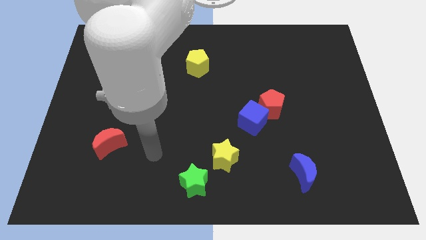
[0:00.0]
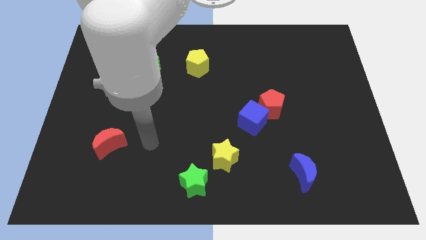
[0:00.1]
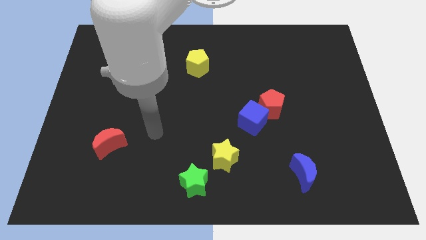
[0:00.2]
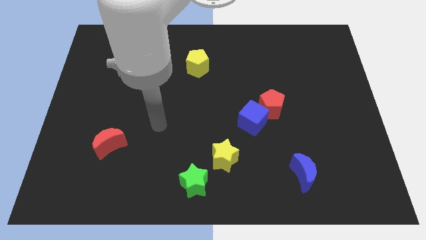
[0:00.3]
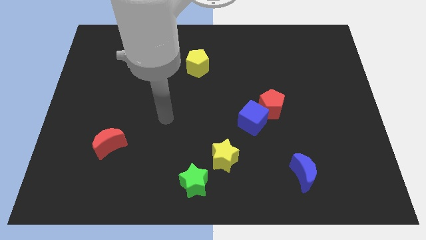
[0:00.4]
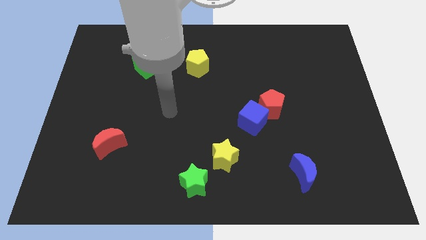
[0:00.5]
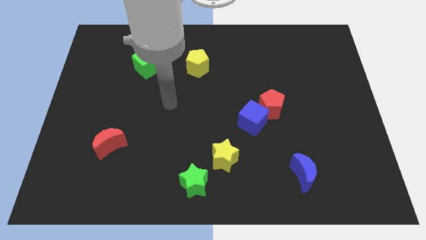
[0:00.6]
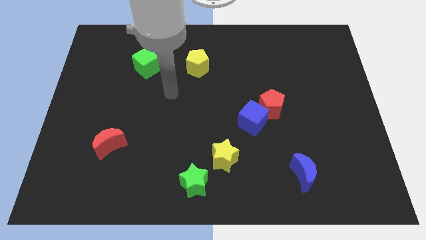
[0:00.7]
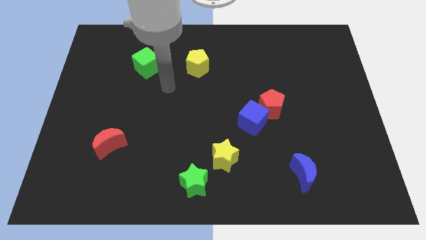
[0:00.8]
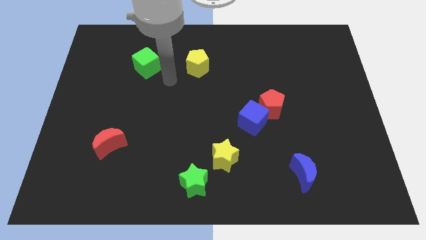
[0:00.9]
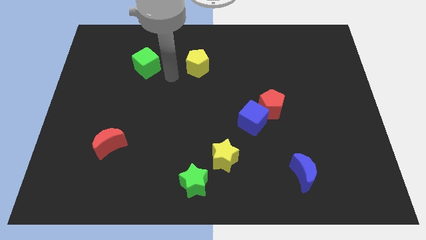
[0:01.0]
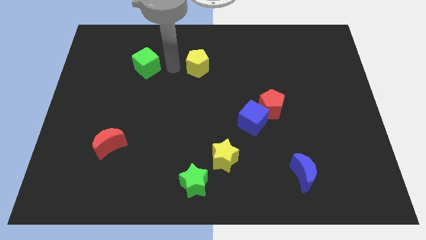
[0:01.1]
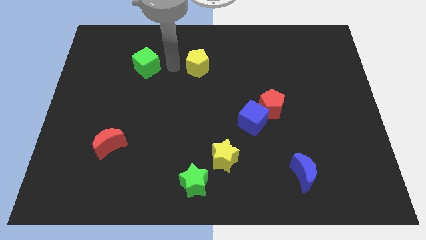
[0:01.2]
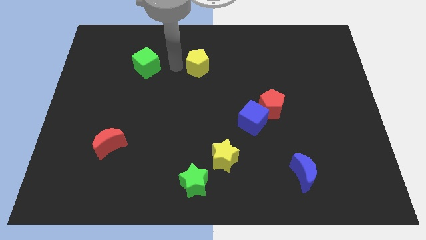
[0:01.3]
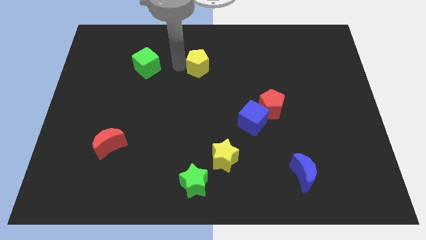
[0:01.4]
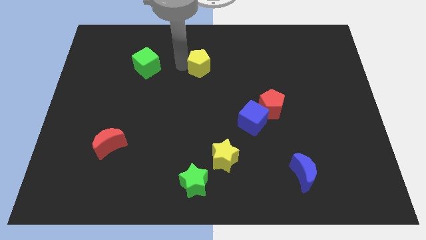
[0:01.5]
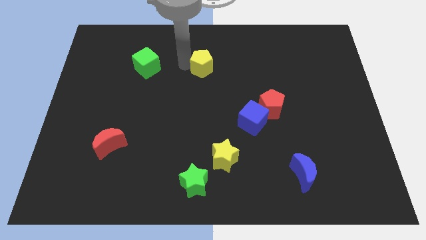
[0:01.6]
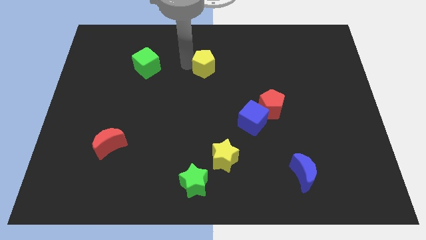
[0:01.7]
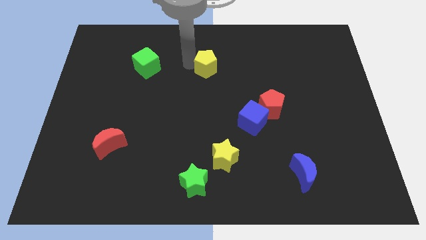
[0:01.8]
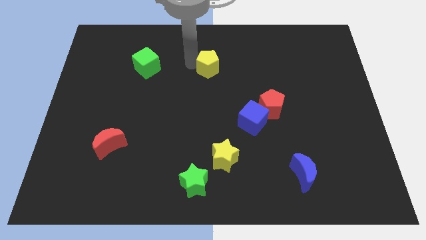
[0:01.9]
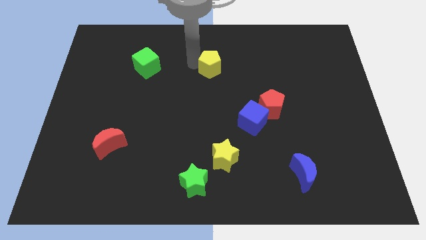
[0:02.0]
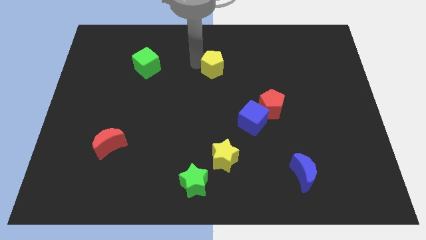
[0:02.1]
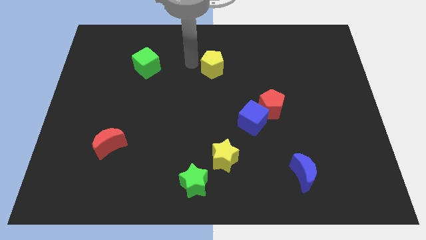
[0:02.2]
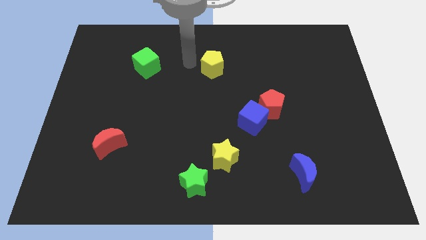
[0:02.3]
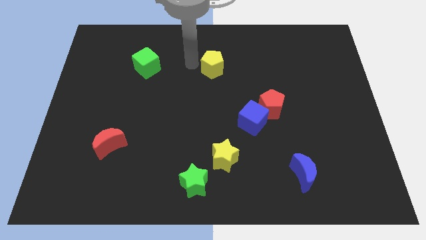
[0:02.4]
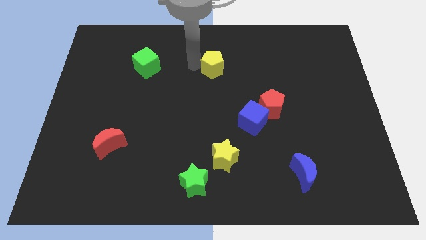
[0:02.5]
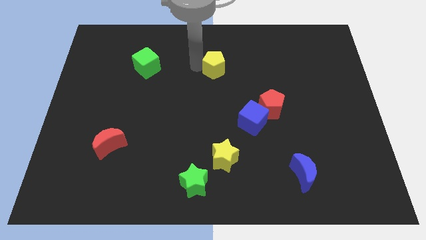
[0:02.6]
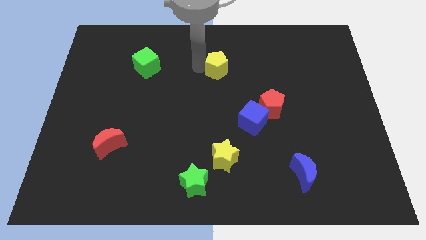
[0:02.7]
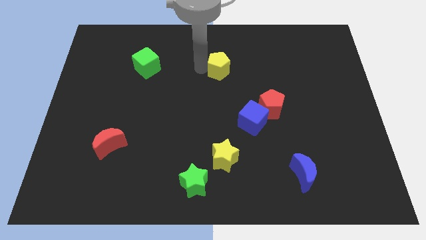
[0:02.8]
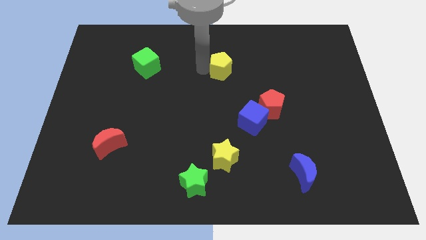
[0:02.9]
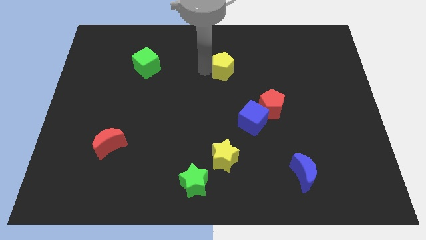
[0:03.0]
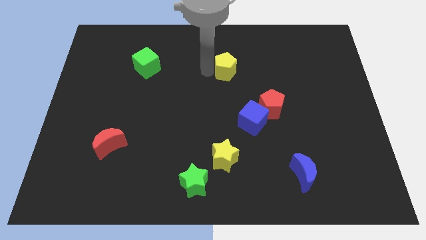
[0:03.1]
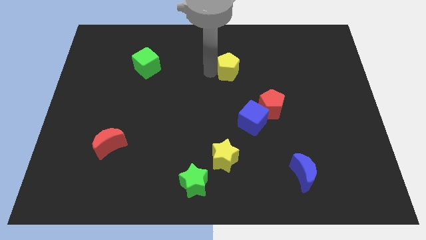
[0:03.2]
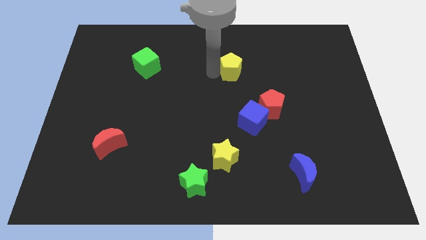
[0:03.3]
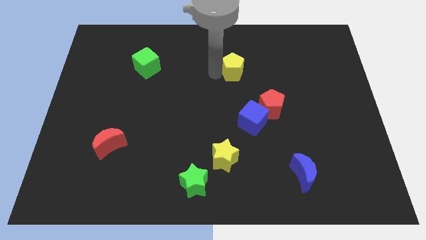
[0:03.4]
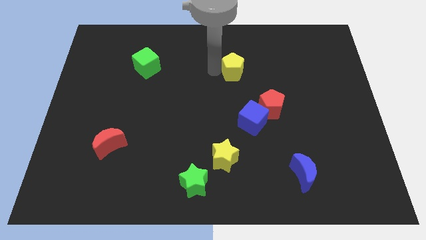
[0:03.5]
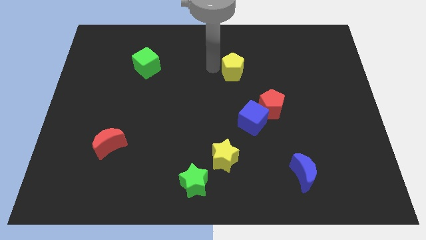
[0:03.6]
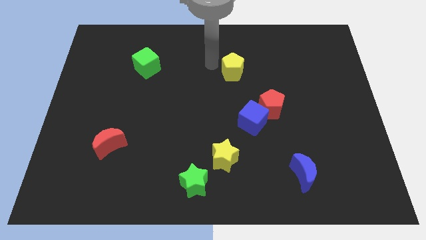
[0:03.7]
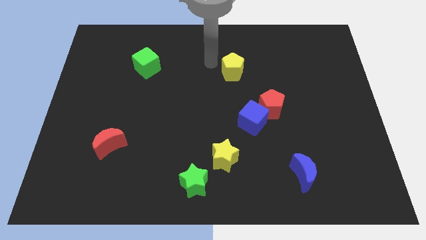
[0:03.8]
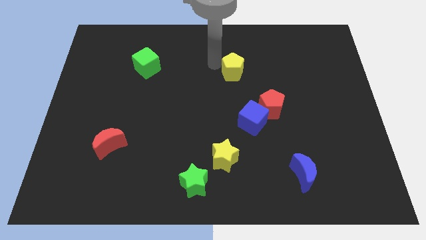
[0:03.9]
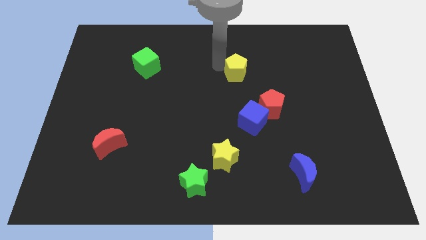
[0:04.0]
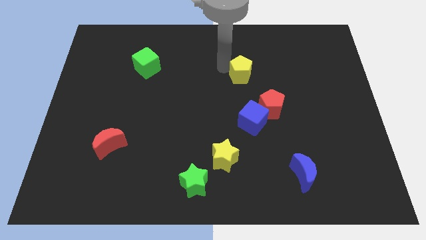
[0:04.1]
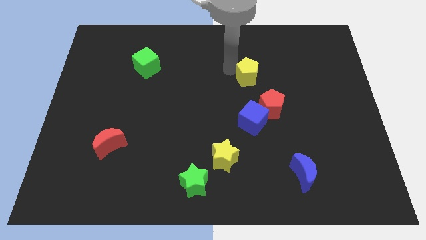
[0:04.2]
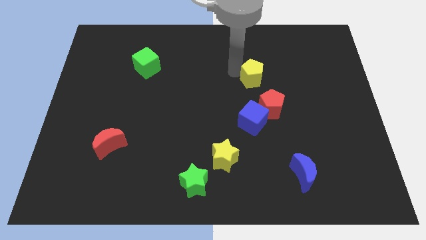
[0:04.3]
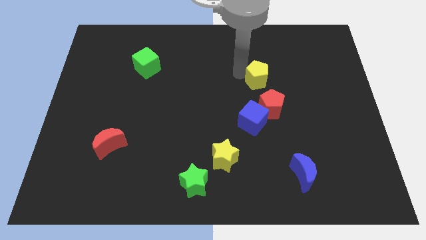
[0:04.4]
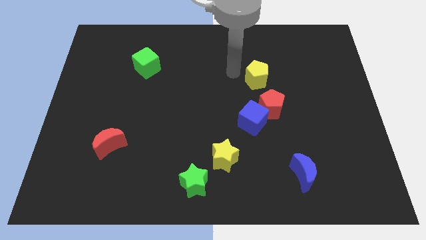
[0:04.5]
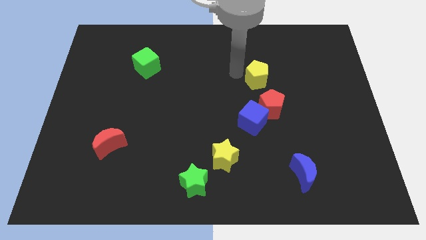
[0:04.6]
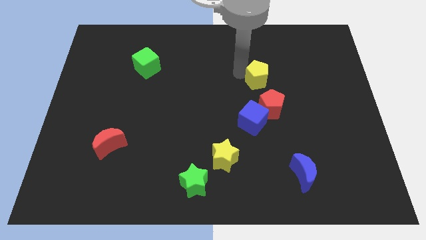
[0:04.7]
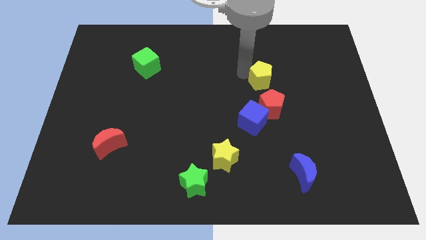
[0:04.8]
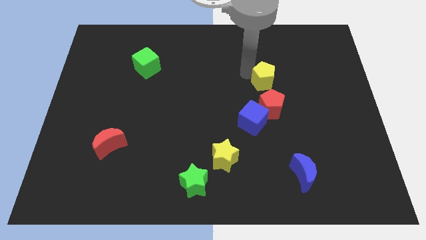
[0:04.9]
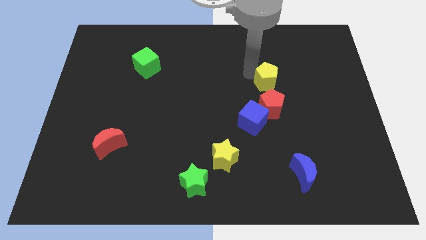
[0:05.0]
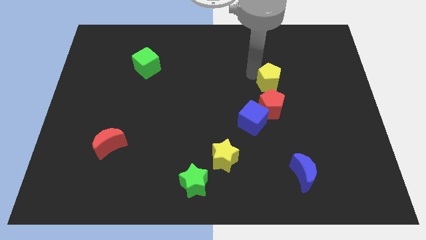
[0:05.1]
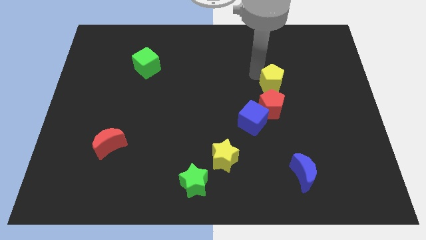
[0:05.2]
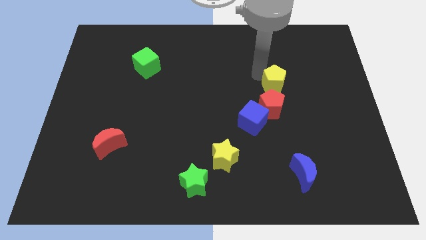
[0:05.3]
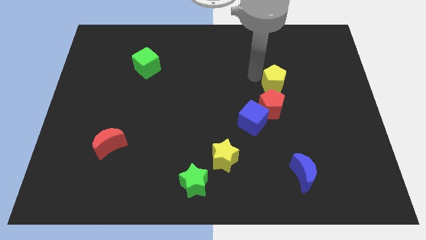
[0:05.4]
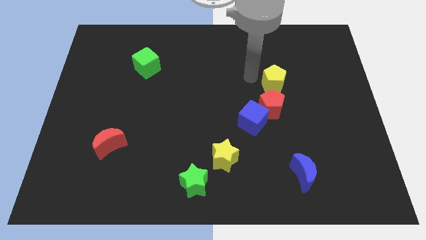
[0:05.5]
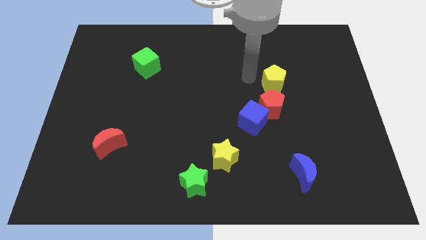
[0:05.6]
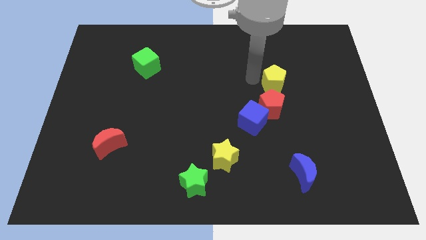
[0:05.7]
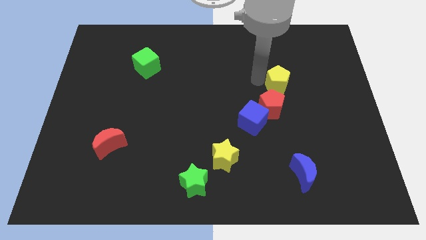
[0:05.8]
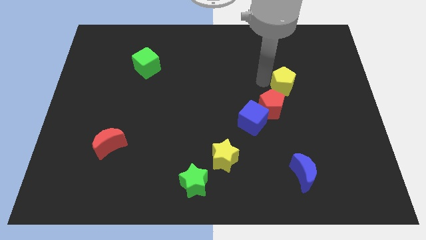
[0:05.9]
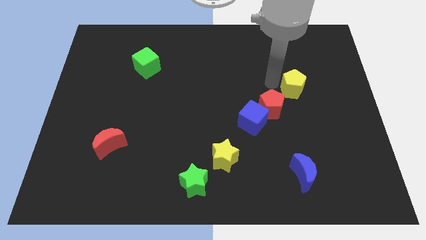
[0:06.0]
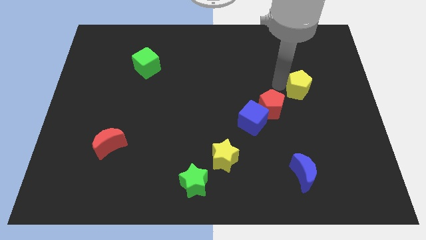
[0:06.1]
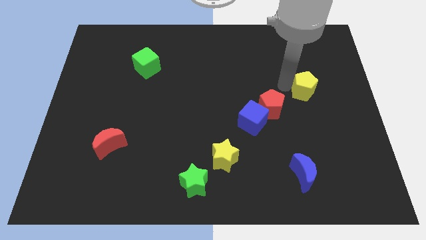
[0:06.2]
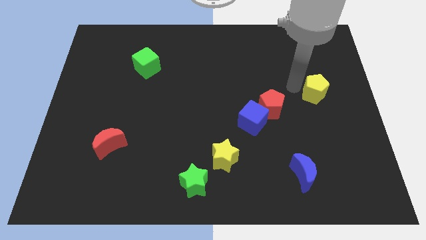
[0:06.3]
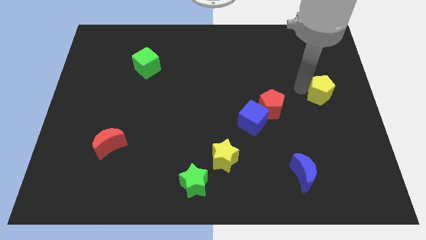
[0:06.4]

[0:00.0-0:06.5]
put the yellow pentagon to the center right
